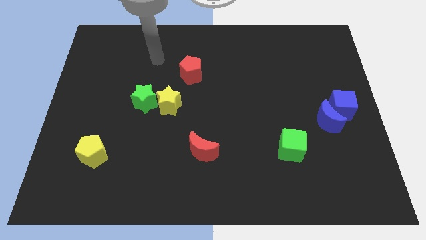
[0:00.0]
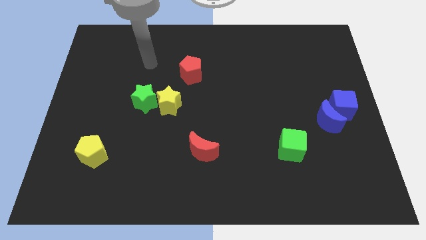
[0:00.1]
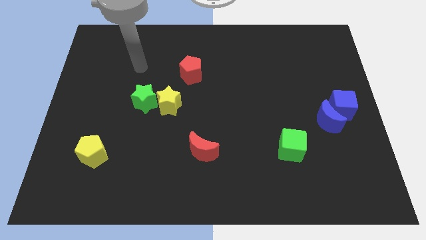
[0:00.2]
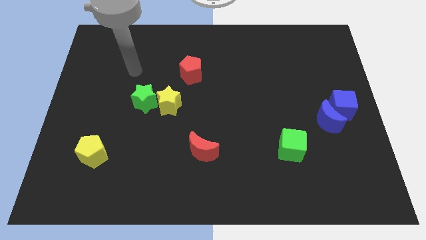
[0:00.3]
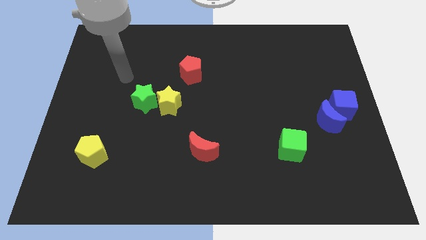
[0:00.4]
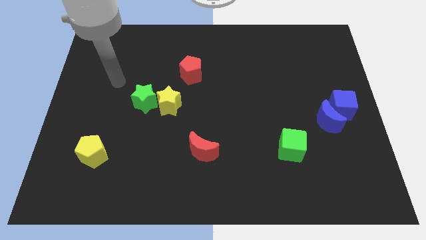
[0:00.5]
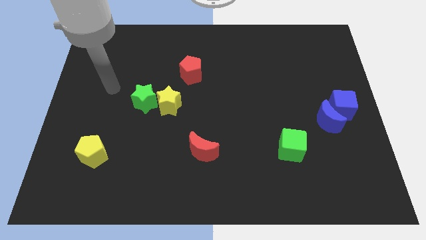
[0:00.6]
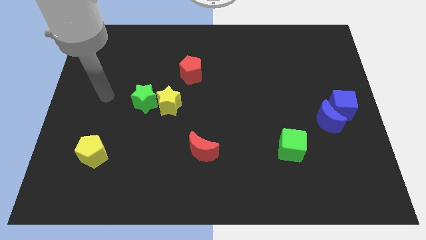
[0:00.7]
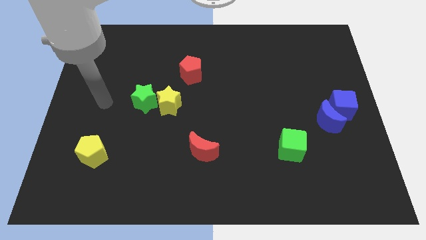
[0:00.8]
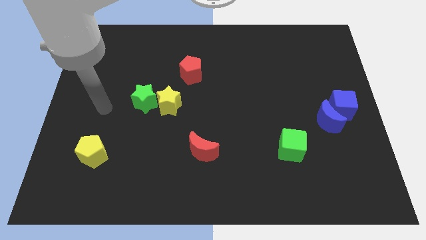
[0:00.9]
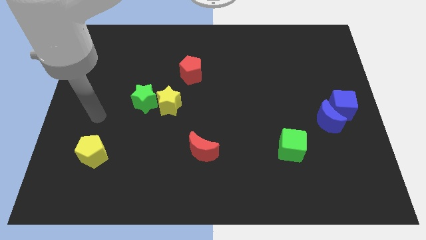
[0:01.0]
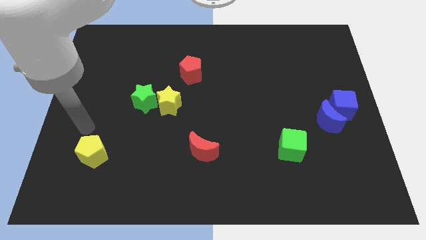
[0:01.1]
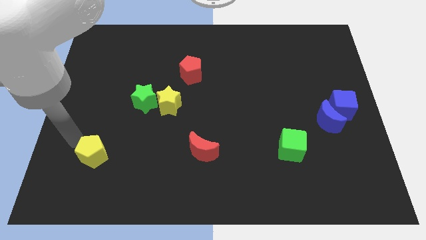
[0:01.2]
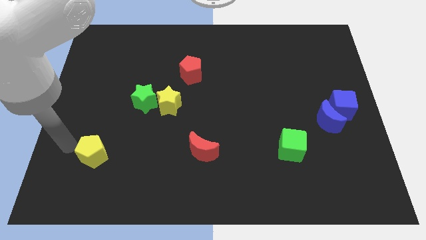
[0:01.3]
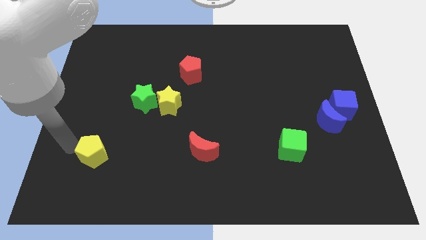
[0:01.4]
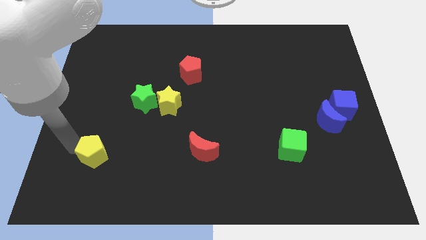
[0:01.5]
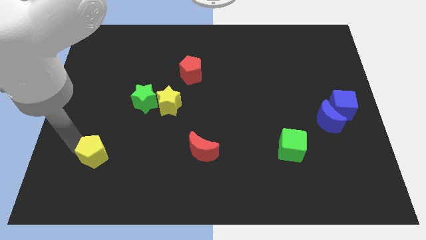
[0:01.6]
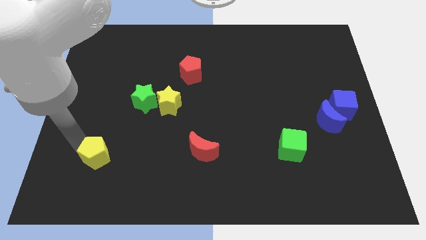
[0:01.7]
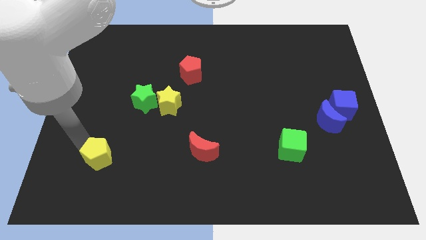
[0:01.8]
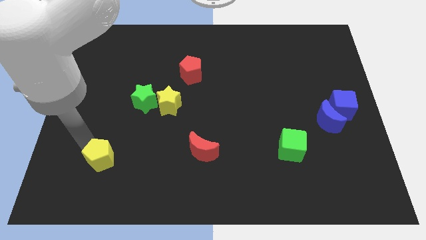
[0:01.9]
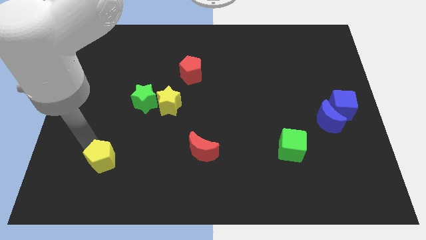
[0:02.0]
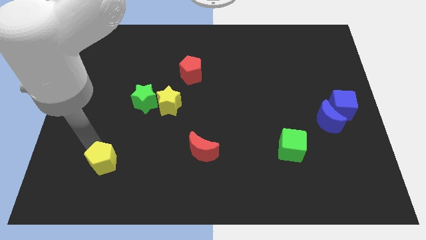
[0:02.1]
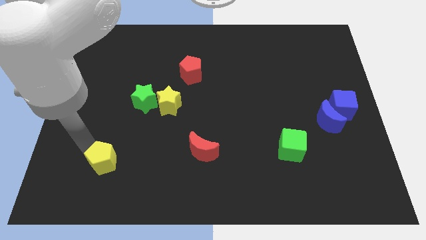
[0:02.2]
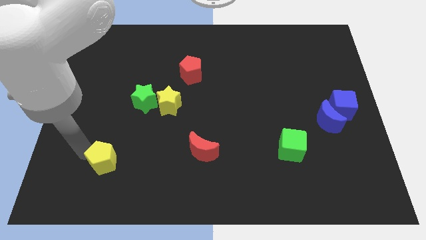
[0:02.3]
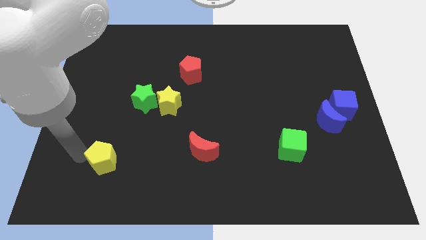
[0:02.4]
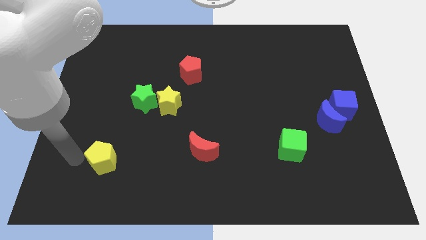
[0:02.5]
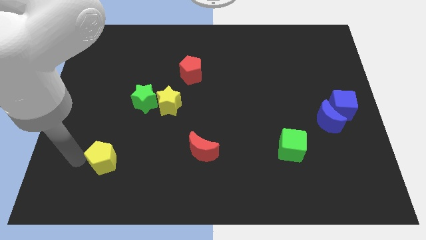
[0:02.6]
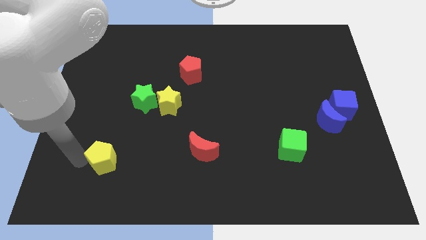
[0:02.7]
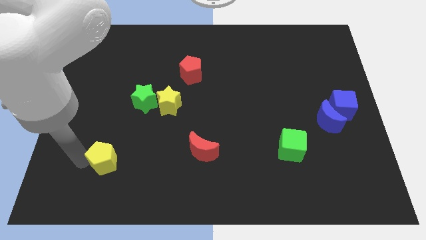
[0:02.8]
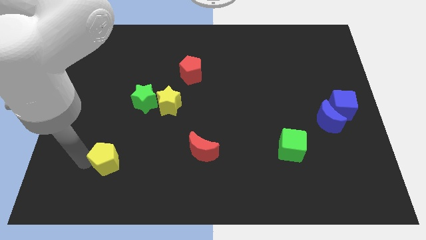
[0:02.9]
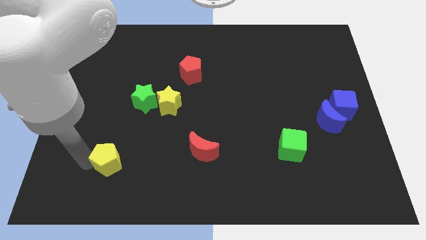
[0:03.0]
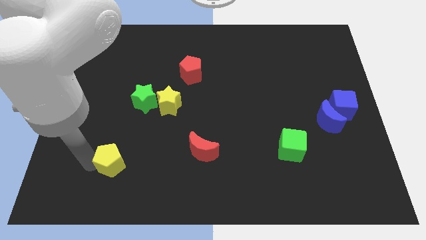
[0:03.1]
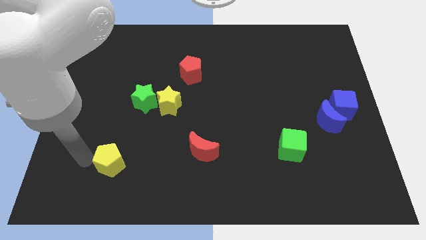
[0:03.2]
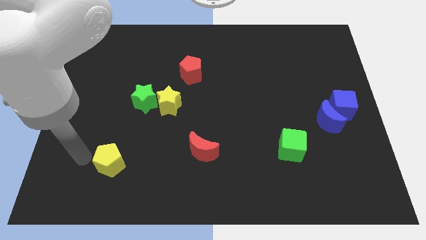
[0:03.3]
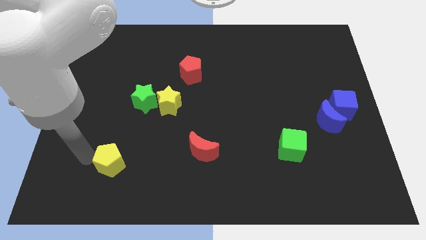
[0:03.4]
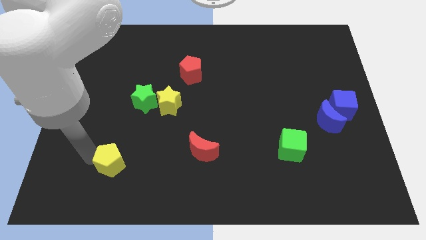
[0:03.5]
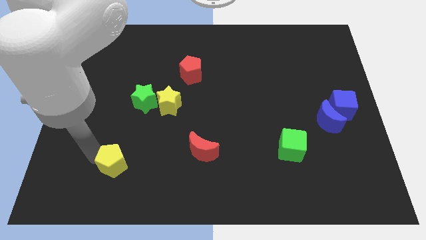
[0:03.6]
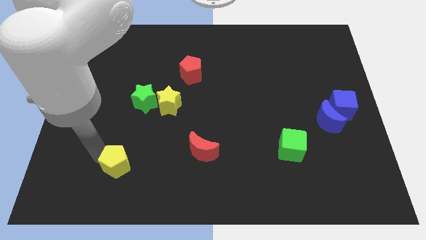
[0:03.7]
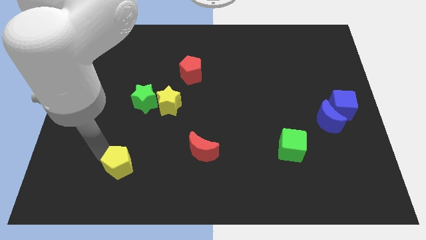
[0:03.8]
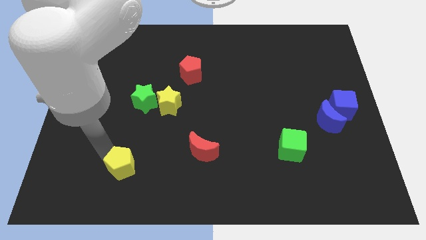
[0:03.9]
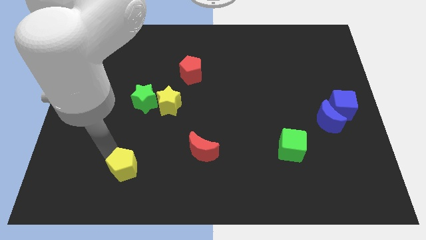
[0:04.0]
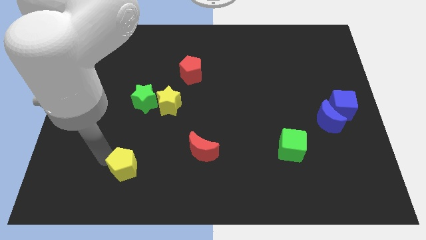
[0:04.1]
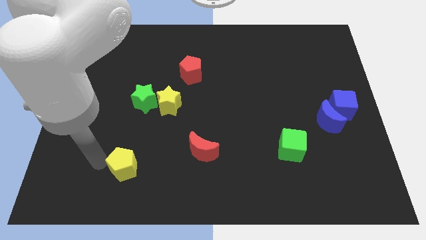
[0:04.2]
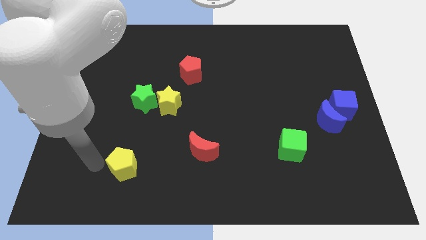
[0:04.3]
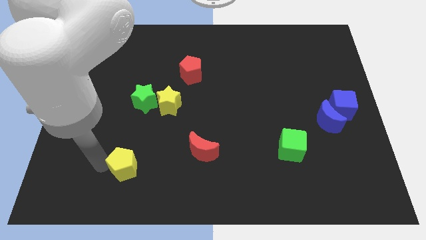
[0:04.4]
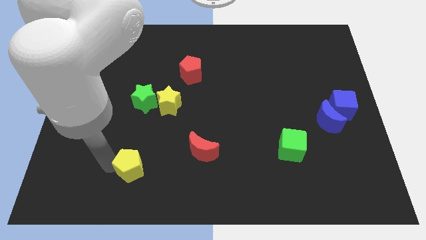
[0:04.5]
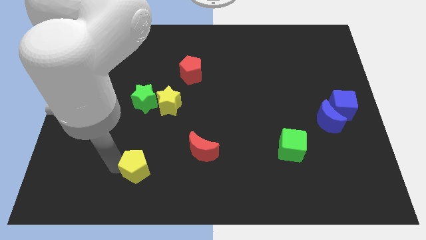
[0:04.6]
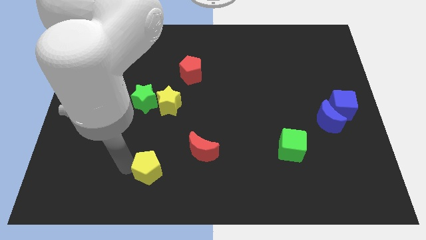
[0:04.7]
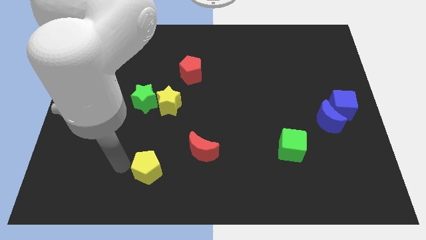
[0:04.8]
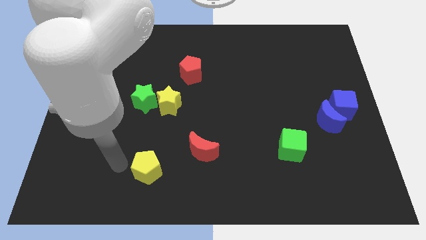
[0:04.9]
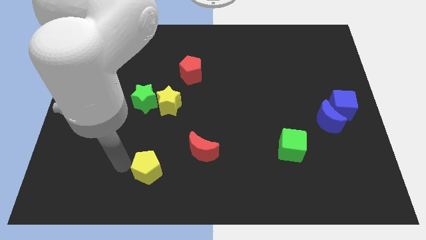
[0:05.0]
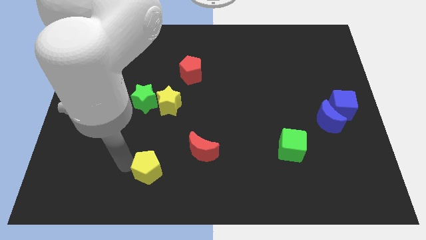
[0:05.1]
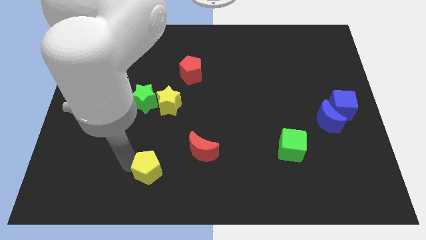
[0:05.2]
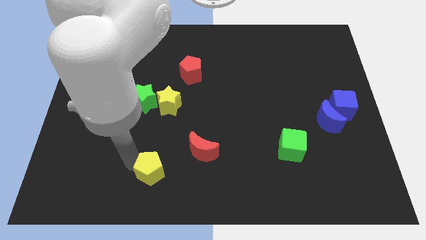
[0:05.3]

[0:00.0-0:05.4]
move the yellow pentagon to the bottom left of the red moon

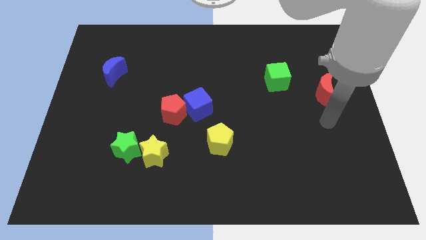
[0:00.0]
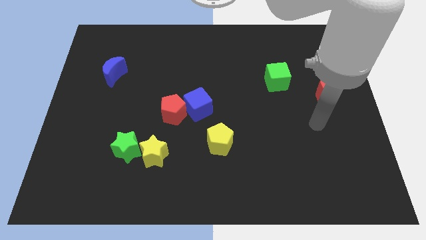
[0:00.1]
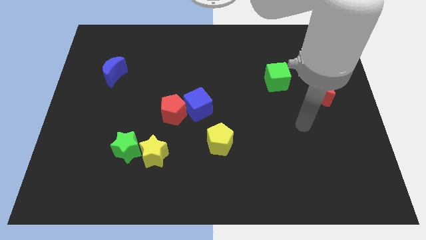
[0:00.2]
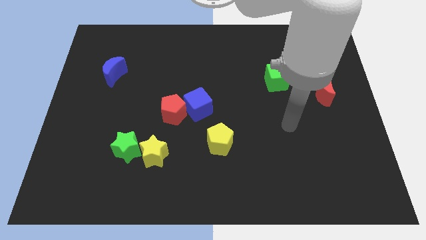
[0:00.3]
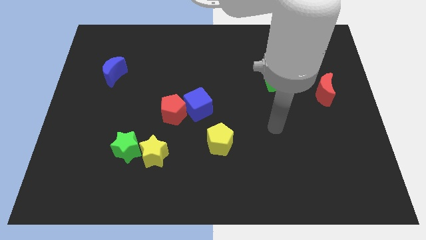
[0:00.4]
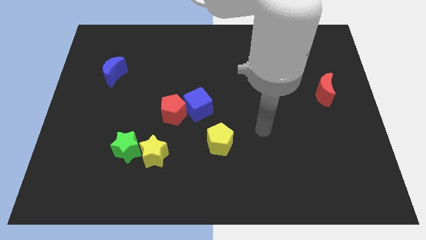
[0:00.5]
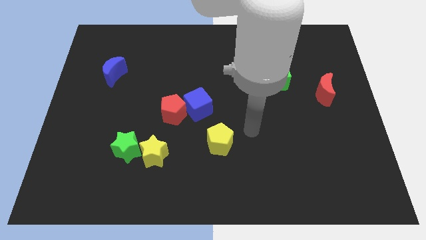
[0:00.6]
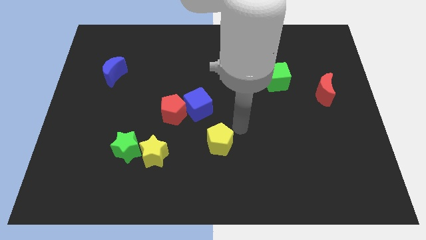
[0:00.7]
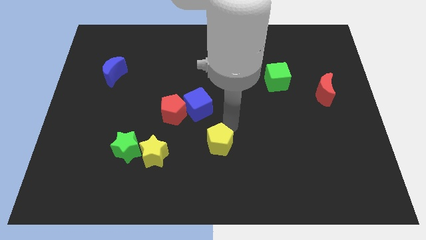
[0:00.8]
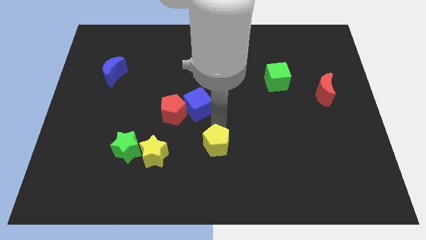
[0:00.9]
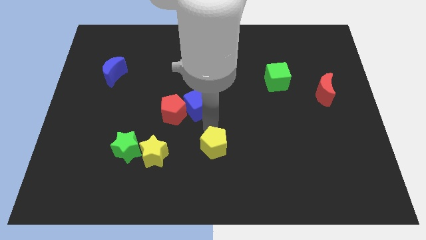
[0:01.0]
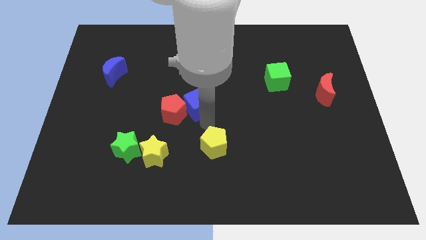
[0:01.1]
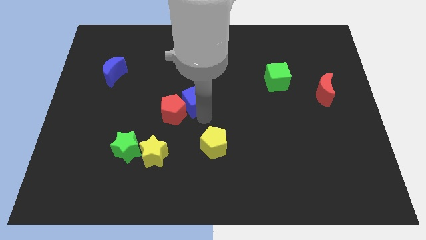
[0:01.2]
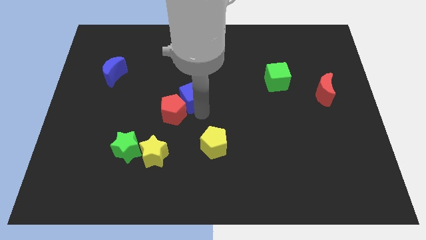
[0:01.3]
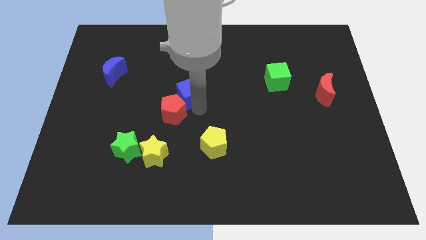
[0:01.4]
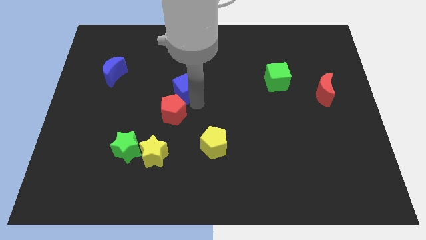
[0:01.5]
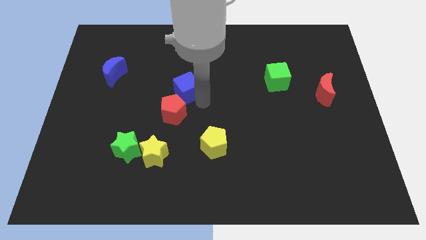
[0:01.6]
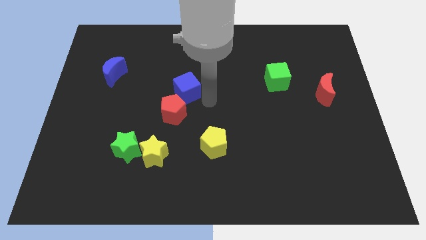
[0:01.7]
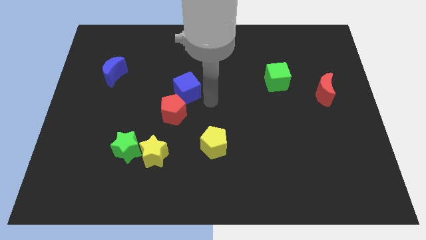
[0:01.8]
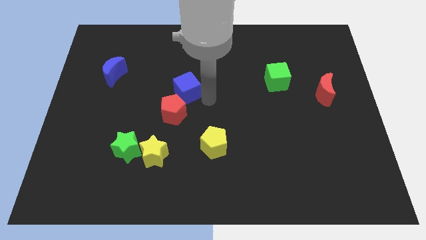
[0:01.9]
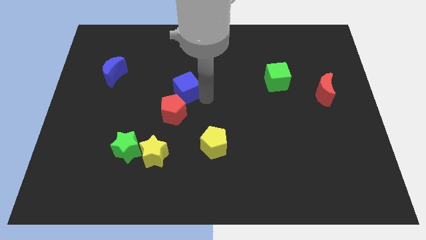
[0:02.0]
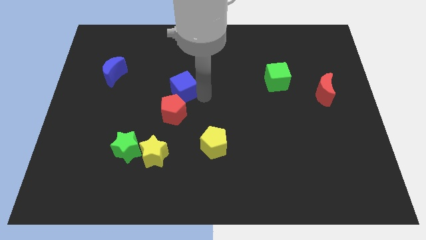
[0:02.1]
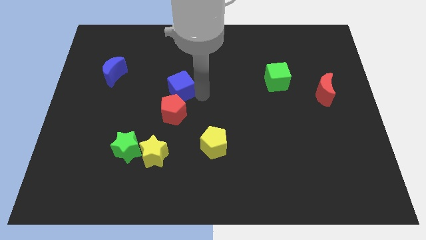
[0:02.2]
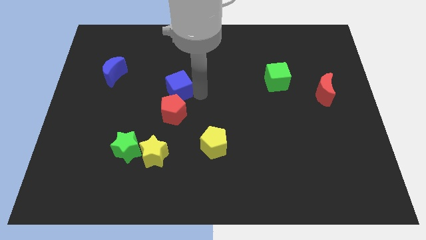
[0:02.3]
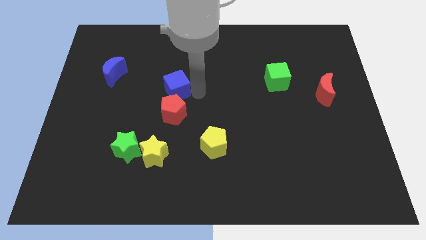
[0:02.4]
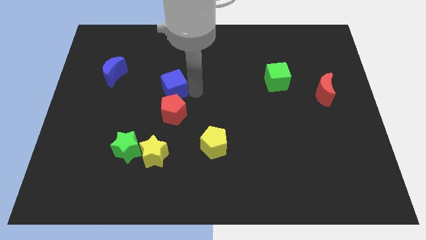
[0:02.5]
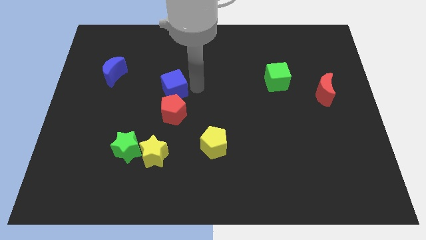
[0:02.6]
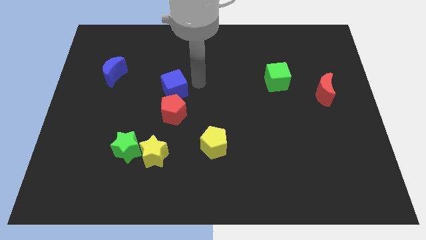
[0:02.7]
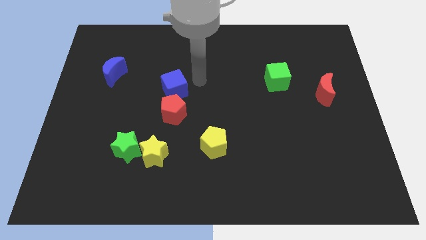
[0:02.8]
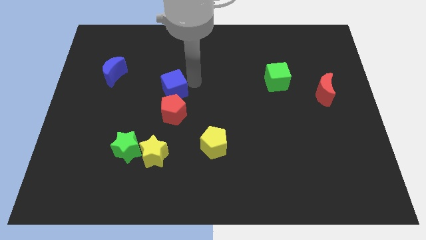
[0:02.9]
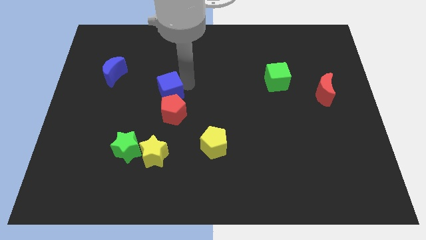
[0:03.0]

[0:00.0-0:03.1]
slide the blue cube to the top left of the red pentagon
